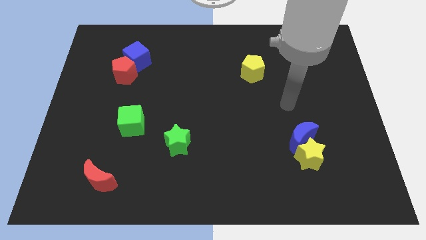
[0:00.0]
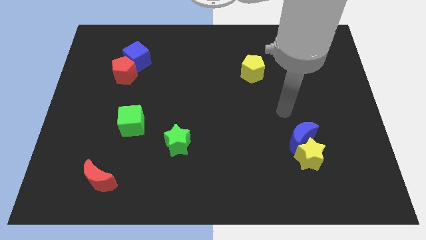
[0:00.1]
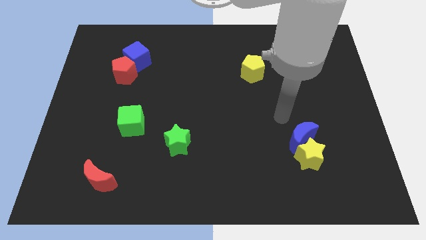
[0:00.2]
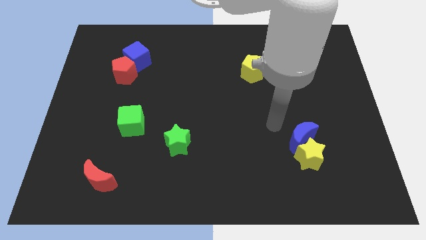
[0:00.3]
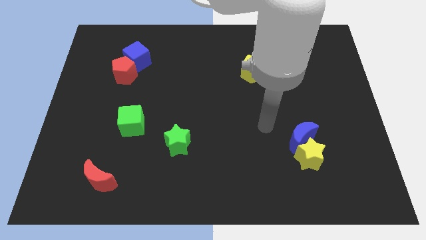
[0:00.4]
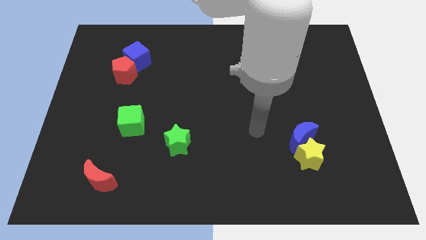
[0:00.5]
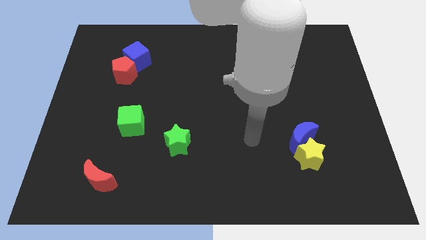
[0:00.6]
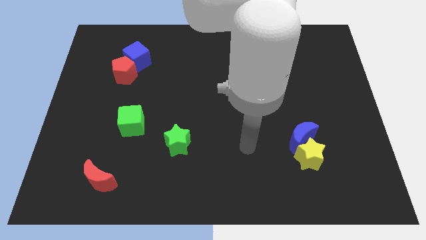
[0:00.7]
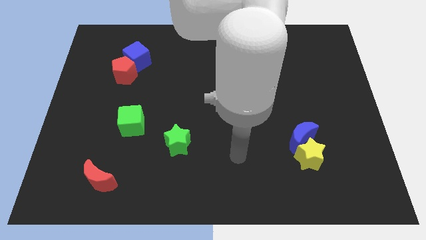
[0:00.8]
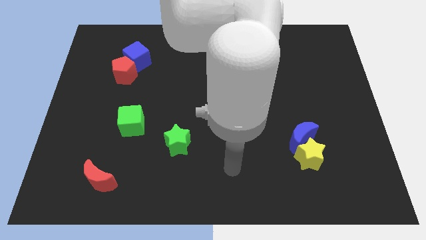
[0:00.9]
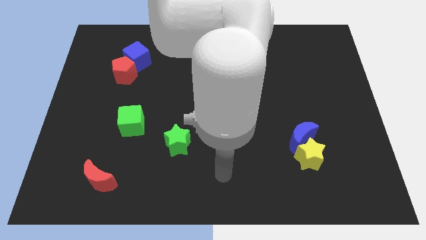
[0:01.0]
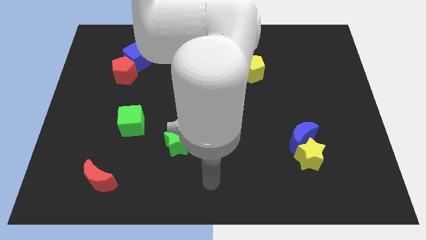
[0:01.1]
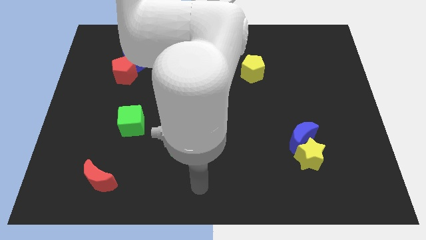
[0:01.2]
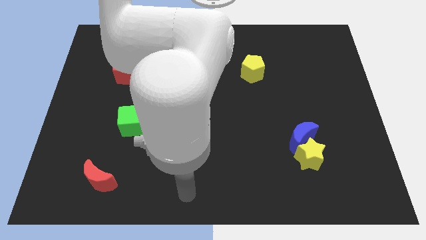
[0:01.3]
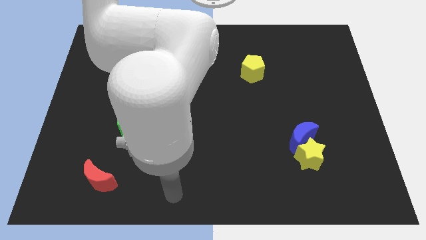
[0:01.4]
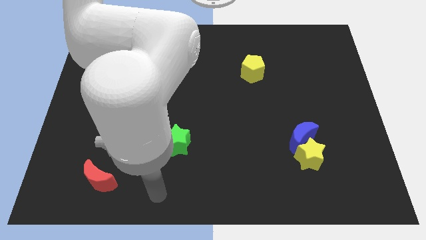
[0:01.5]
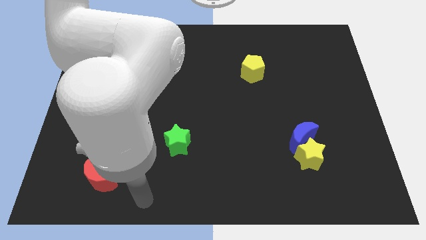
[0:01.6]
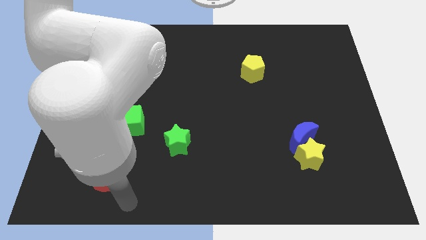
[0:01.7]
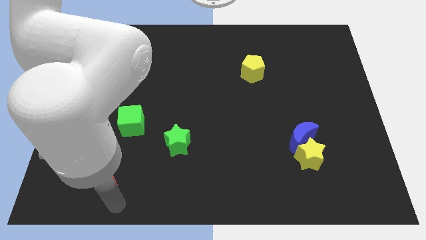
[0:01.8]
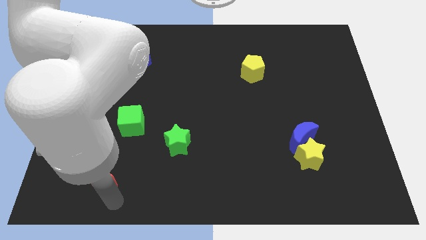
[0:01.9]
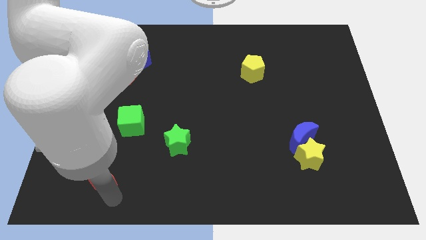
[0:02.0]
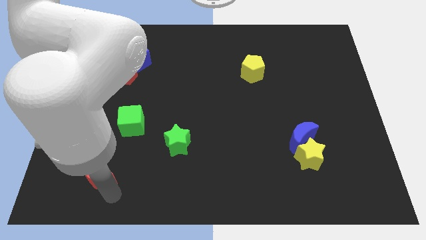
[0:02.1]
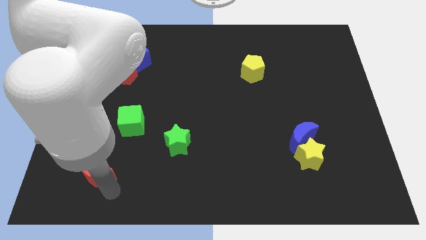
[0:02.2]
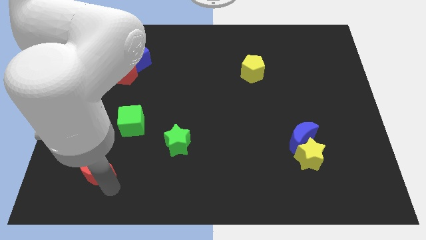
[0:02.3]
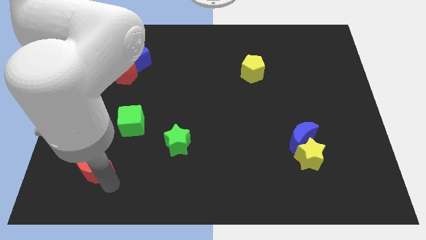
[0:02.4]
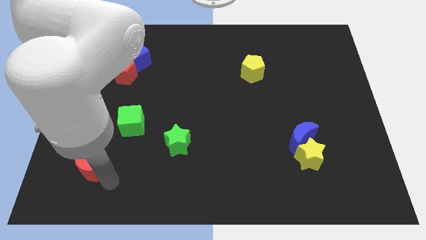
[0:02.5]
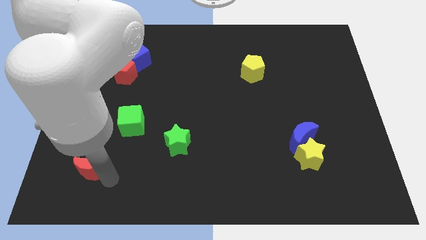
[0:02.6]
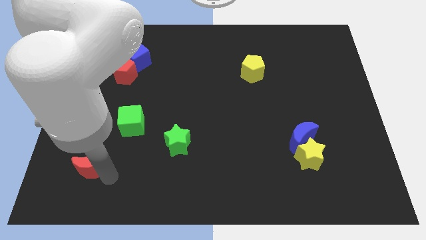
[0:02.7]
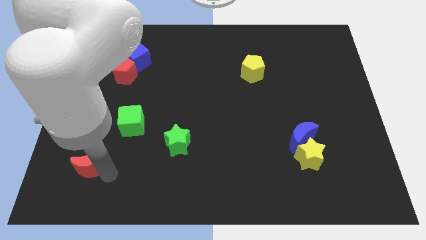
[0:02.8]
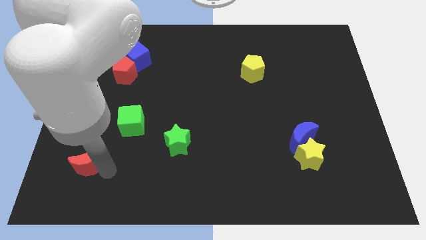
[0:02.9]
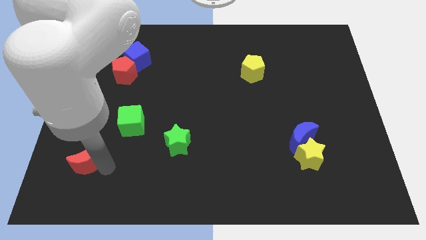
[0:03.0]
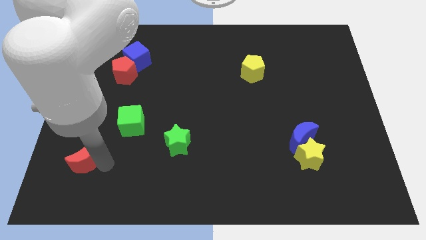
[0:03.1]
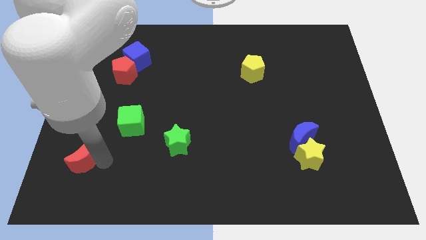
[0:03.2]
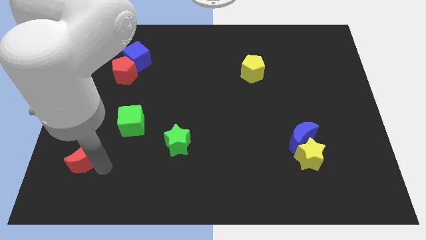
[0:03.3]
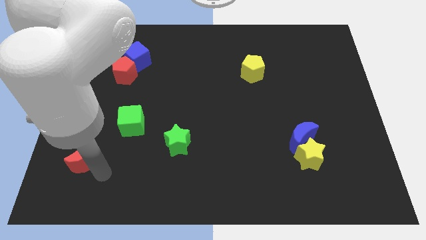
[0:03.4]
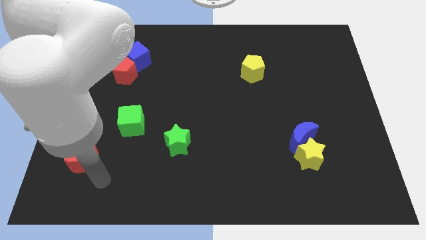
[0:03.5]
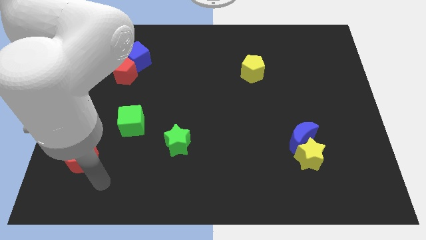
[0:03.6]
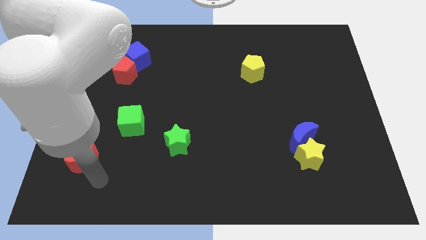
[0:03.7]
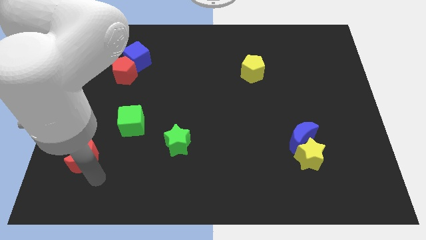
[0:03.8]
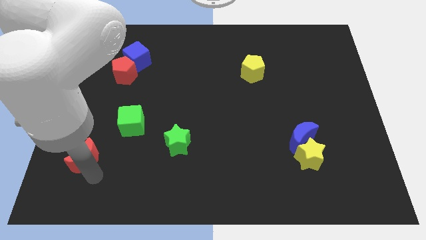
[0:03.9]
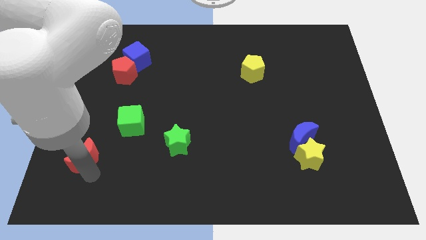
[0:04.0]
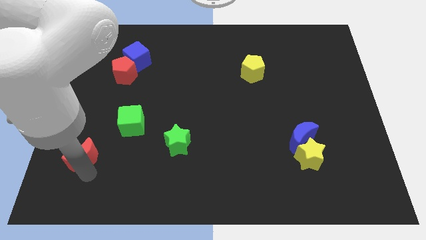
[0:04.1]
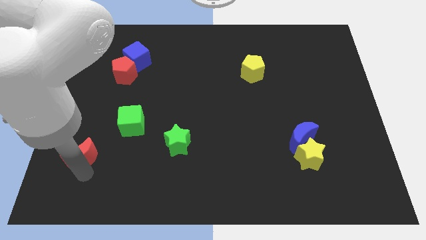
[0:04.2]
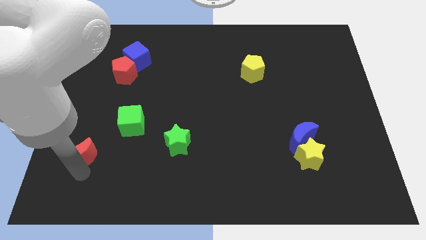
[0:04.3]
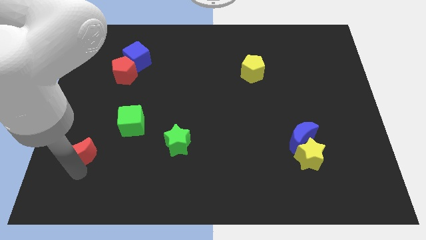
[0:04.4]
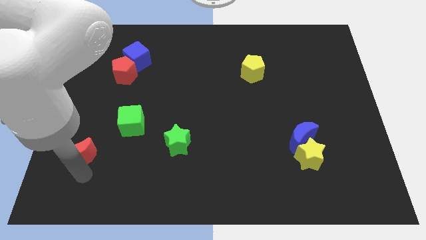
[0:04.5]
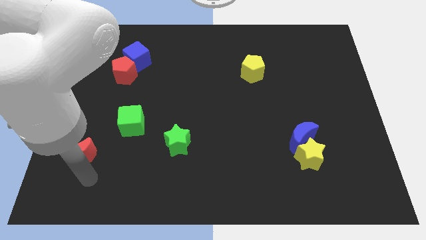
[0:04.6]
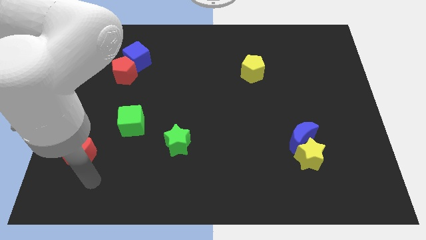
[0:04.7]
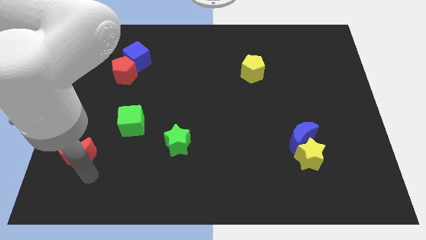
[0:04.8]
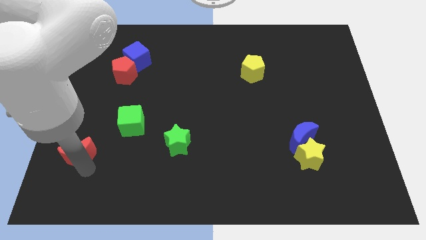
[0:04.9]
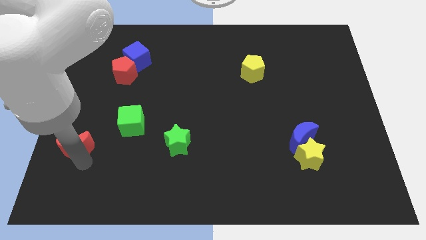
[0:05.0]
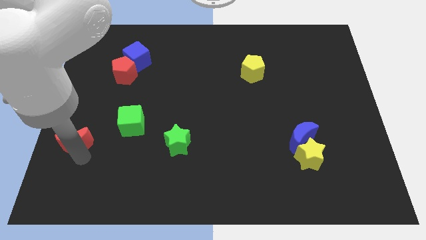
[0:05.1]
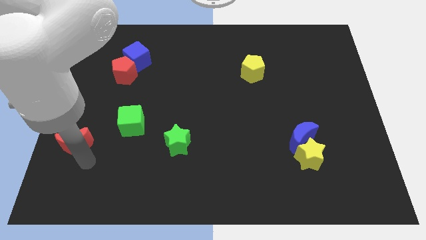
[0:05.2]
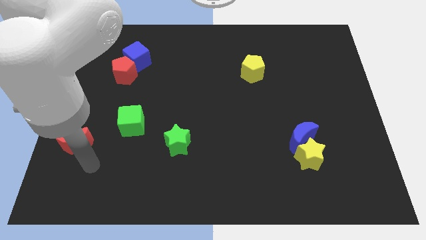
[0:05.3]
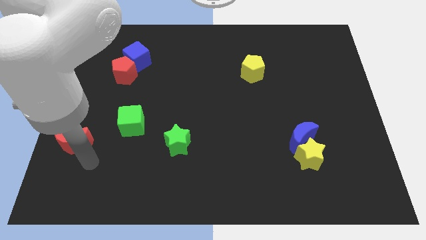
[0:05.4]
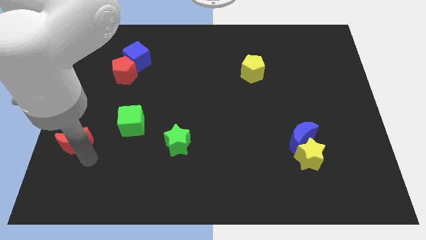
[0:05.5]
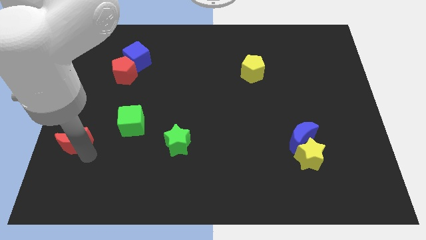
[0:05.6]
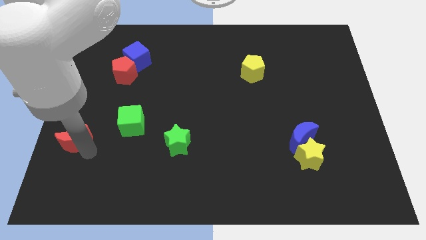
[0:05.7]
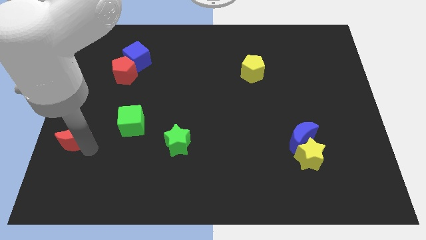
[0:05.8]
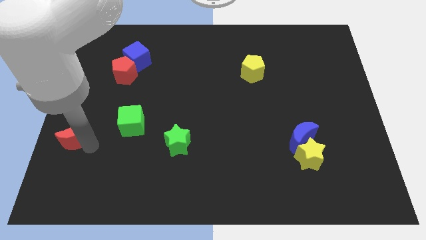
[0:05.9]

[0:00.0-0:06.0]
push the red moon to the left side of the board

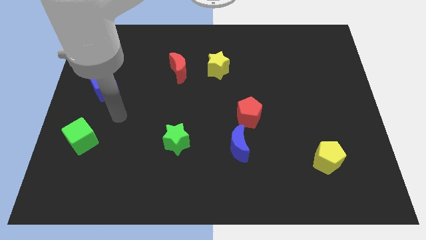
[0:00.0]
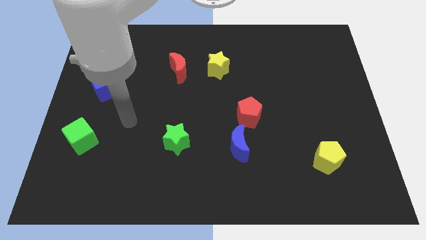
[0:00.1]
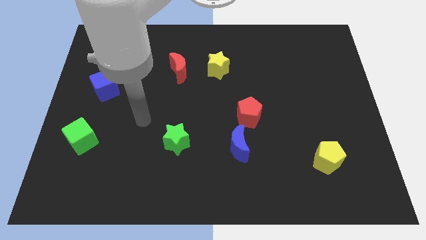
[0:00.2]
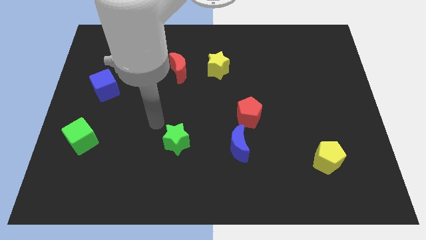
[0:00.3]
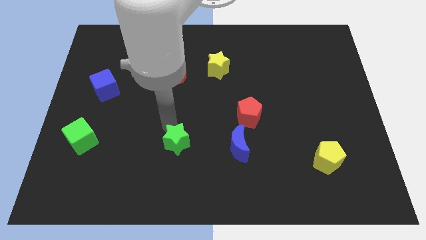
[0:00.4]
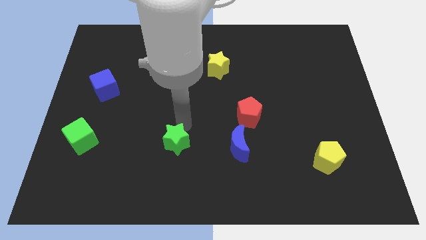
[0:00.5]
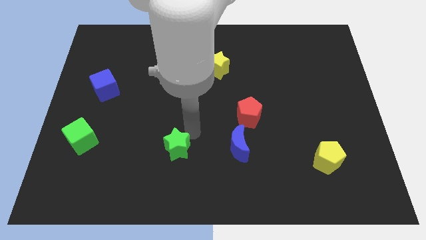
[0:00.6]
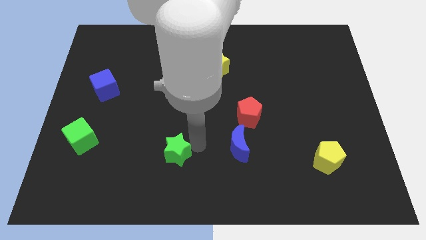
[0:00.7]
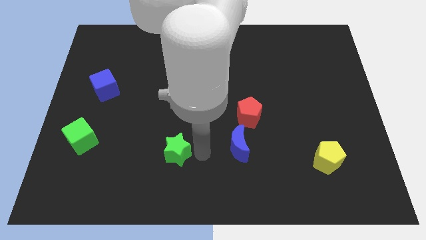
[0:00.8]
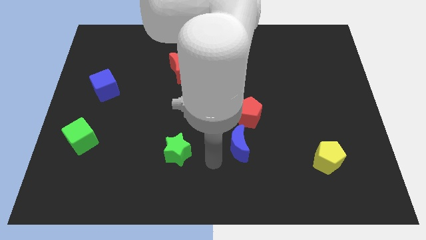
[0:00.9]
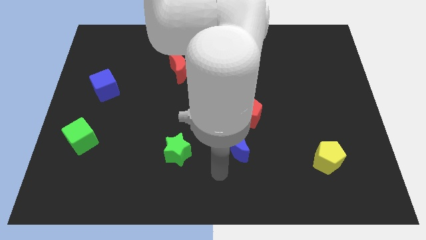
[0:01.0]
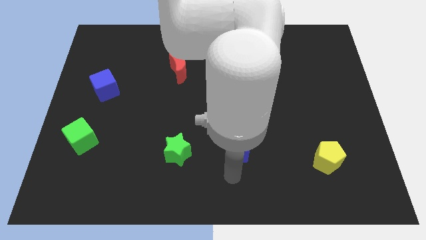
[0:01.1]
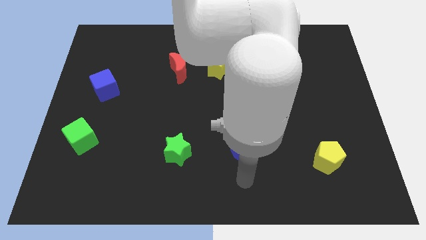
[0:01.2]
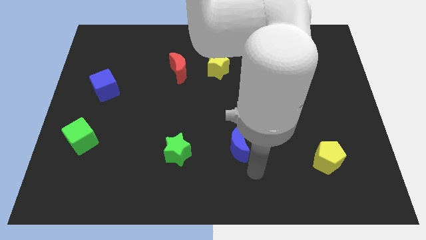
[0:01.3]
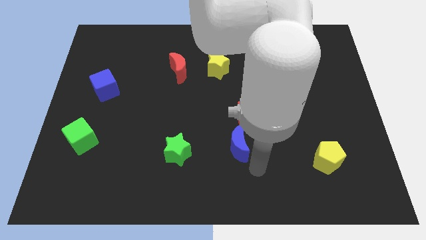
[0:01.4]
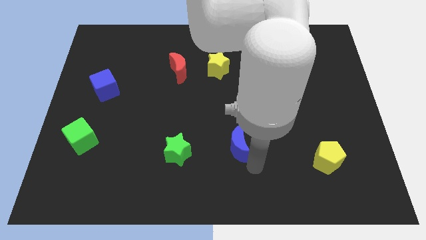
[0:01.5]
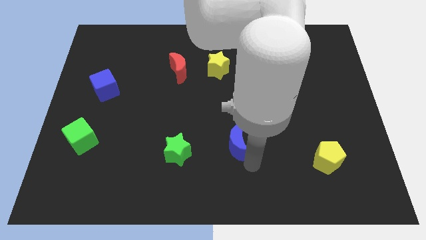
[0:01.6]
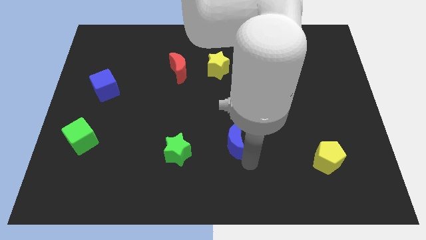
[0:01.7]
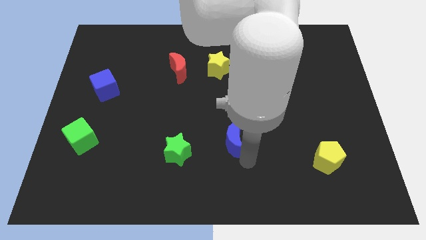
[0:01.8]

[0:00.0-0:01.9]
move the blue moon to the middle of the board
